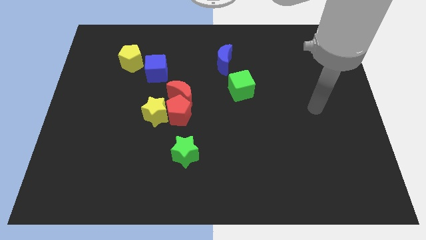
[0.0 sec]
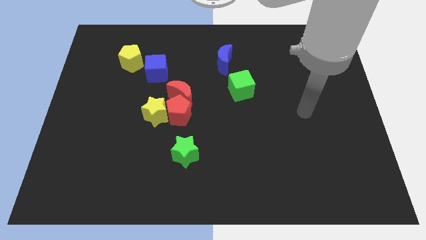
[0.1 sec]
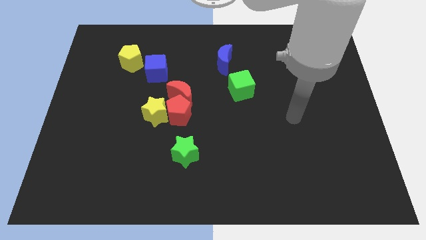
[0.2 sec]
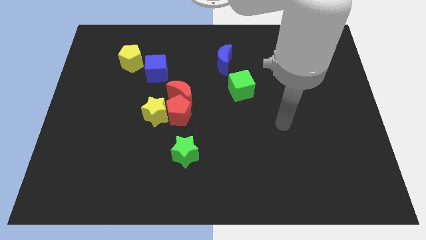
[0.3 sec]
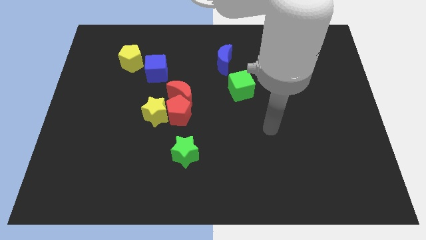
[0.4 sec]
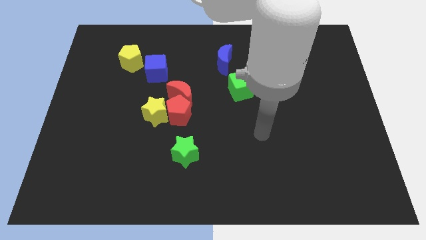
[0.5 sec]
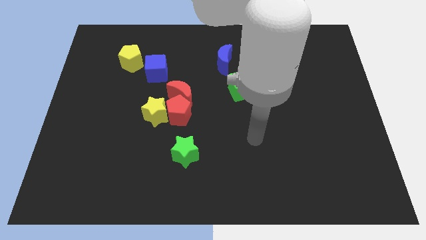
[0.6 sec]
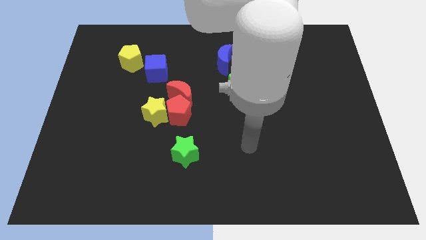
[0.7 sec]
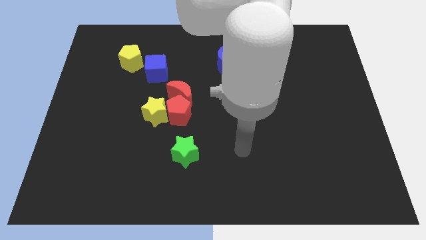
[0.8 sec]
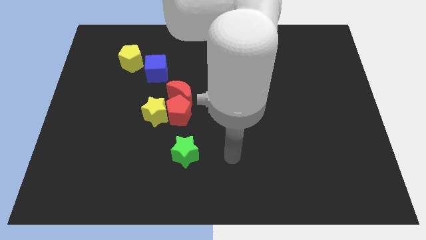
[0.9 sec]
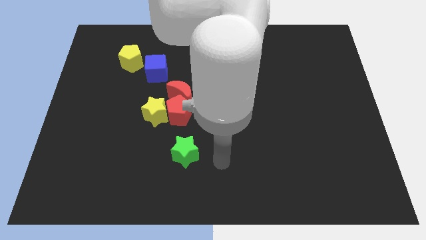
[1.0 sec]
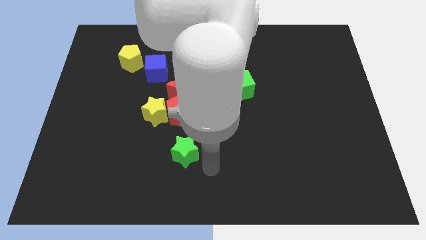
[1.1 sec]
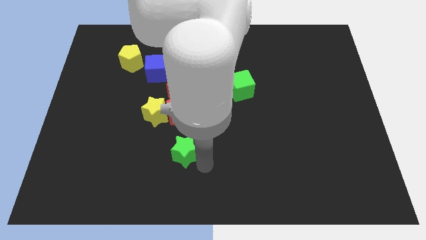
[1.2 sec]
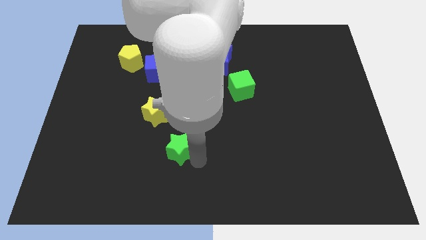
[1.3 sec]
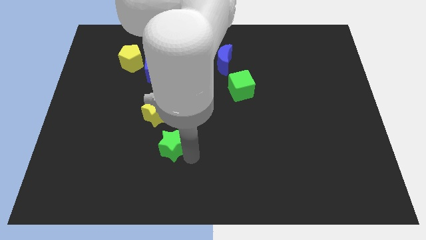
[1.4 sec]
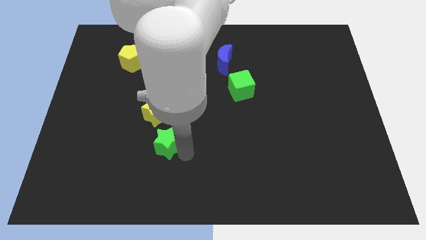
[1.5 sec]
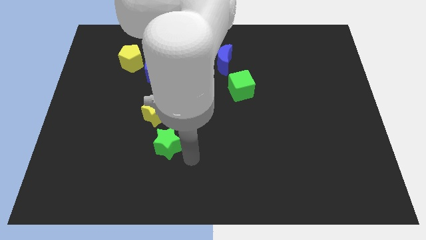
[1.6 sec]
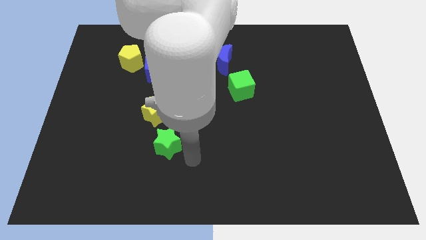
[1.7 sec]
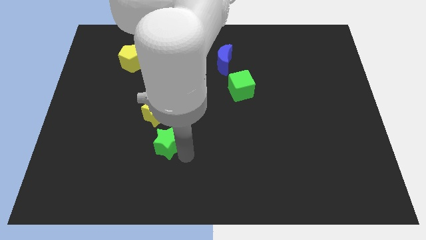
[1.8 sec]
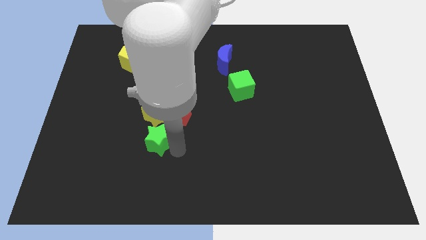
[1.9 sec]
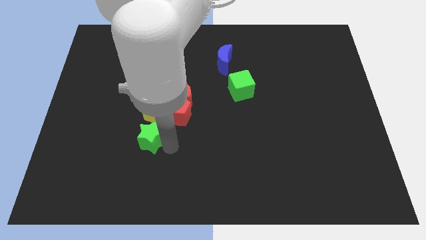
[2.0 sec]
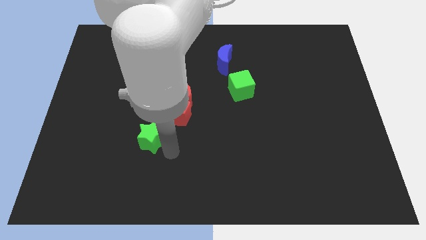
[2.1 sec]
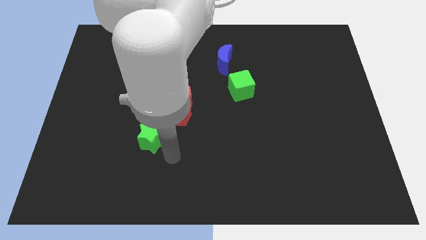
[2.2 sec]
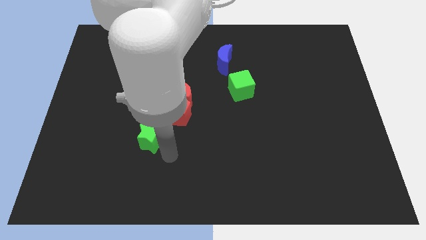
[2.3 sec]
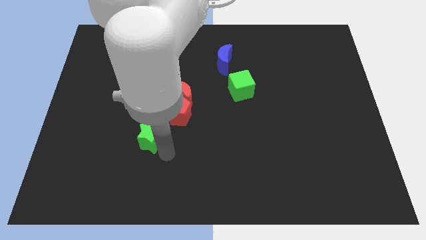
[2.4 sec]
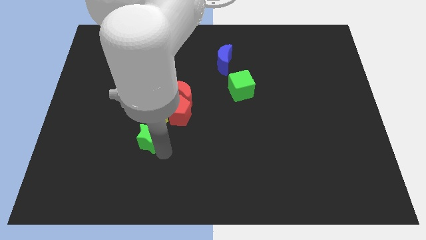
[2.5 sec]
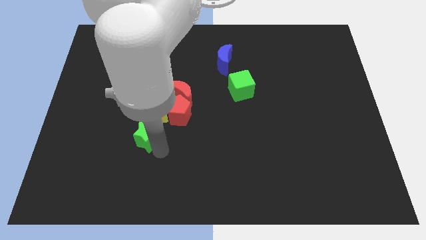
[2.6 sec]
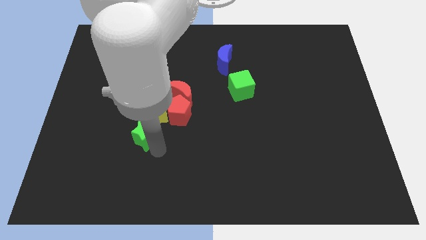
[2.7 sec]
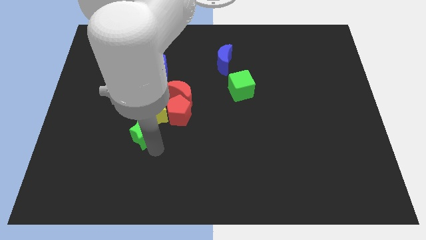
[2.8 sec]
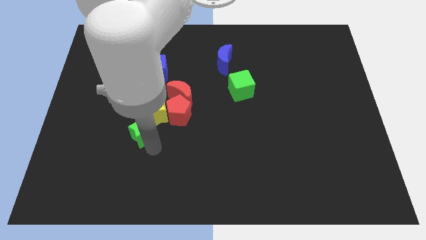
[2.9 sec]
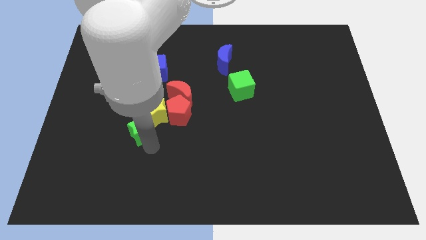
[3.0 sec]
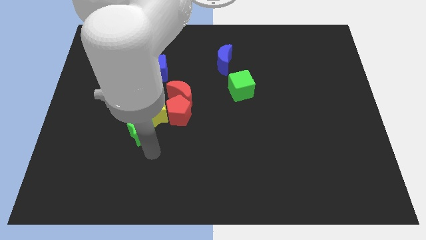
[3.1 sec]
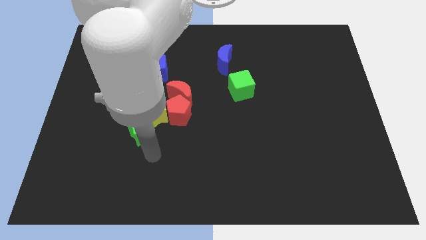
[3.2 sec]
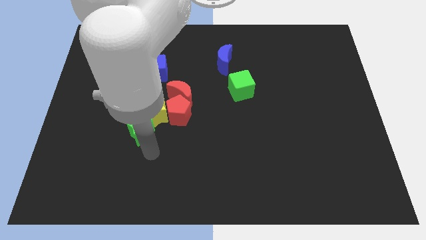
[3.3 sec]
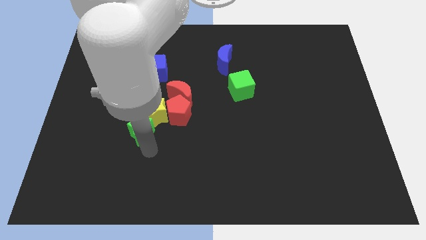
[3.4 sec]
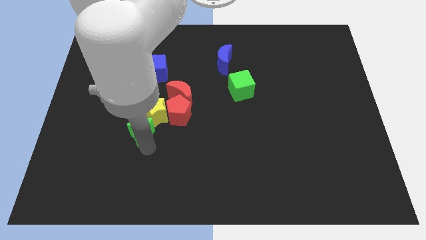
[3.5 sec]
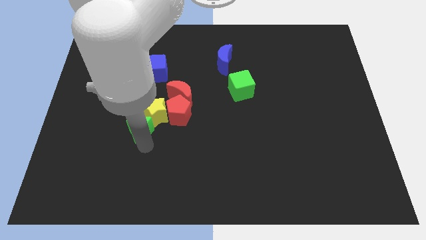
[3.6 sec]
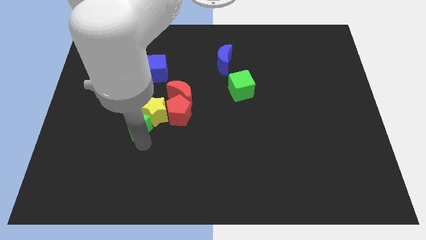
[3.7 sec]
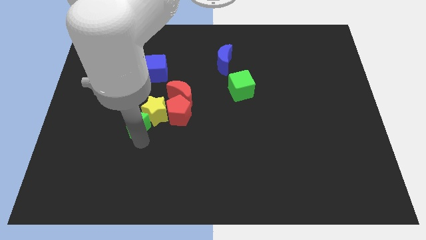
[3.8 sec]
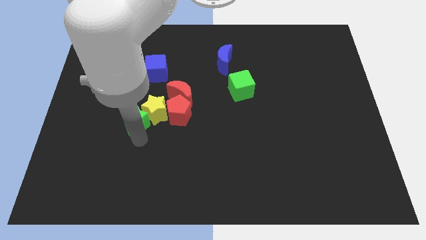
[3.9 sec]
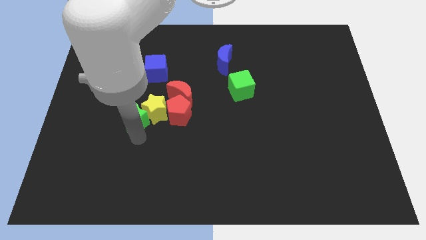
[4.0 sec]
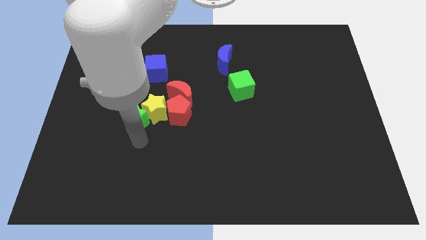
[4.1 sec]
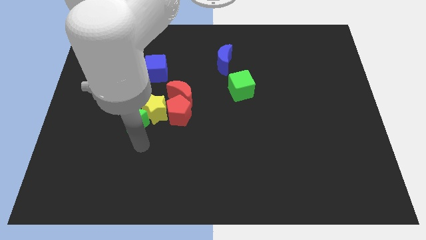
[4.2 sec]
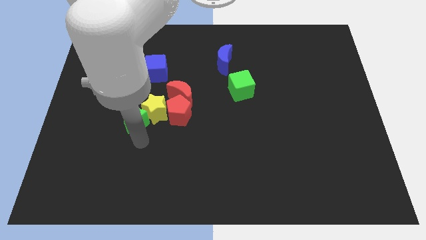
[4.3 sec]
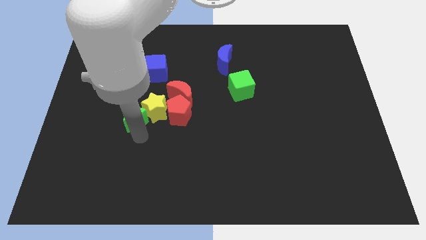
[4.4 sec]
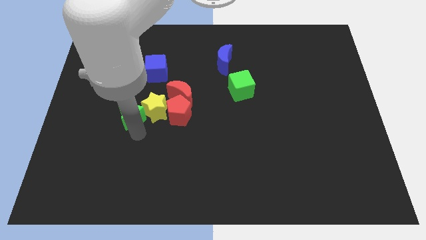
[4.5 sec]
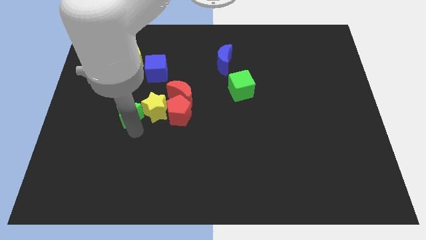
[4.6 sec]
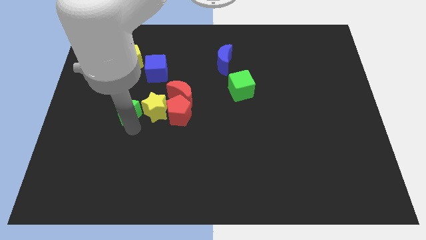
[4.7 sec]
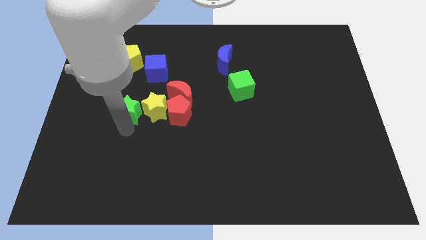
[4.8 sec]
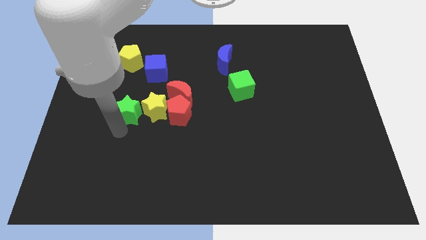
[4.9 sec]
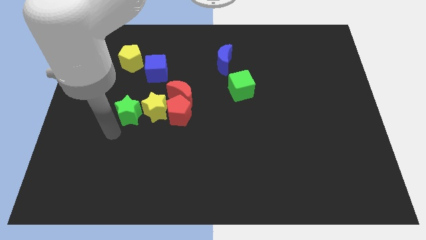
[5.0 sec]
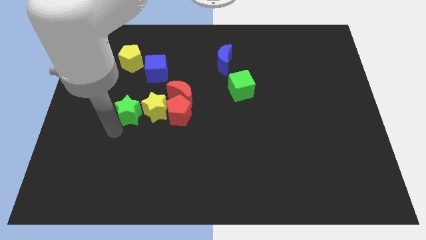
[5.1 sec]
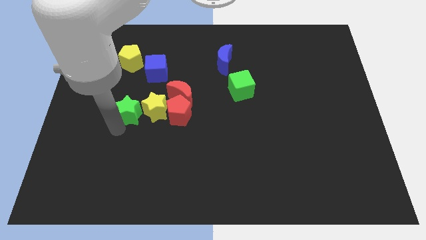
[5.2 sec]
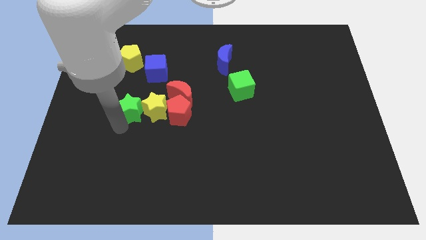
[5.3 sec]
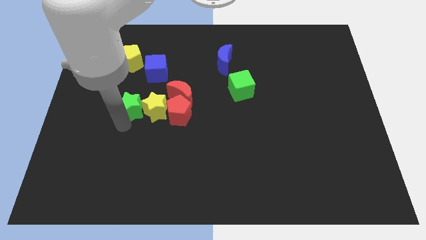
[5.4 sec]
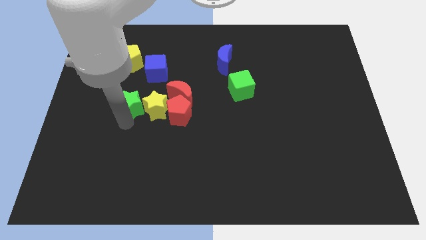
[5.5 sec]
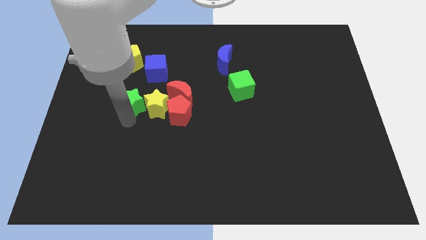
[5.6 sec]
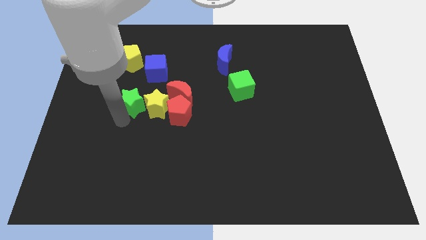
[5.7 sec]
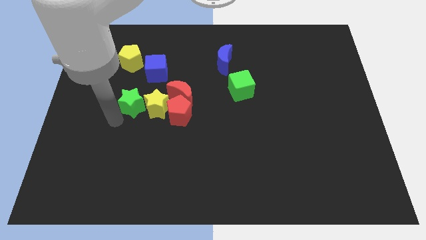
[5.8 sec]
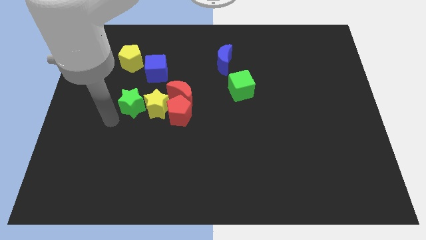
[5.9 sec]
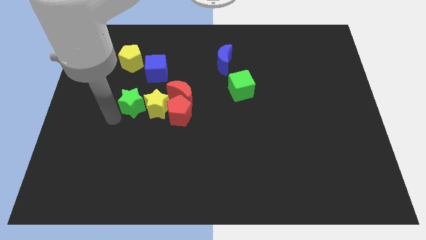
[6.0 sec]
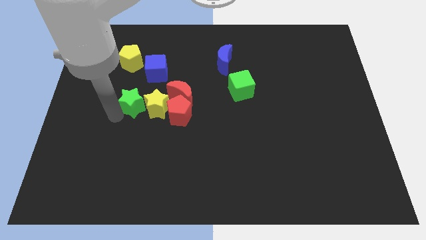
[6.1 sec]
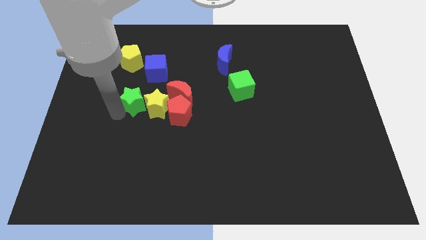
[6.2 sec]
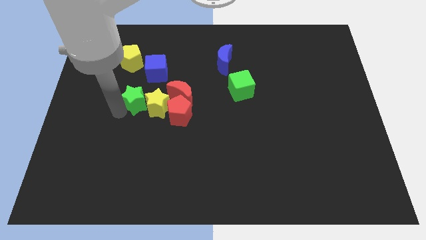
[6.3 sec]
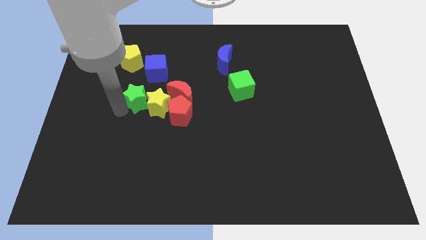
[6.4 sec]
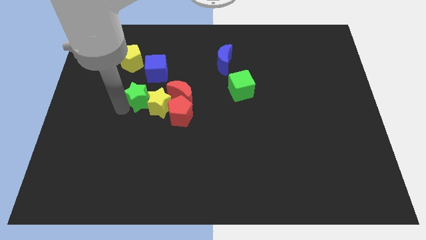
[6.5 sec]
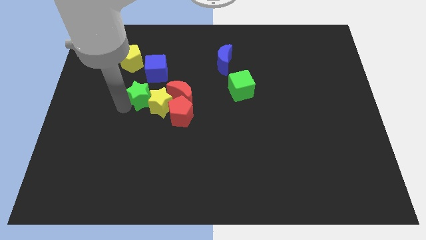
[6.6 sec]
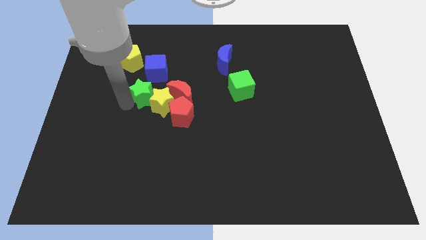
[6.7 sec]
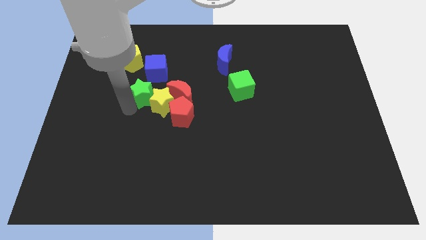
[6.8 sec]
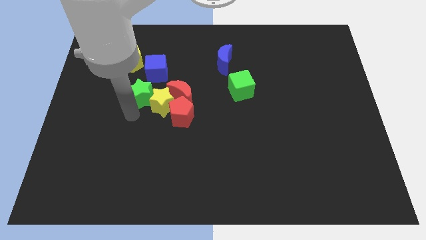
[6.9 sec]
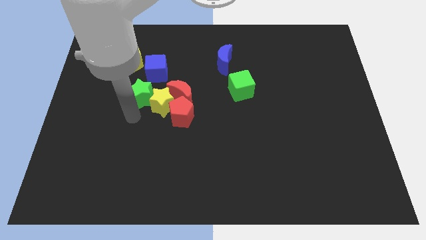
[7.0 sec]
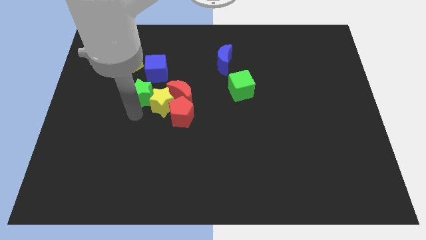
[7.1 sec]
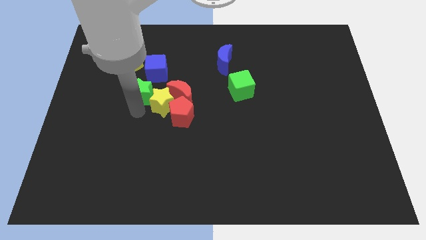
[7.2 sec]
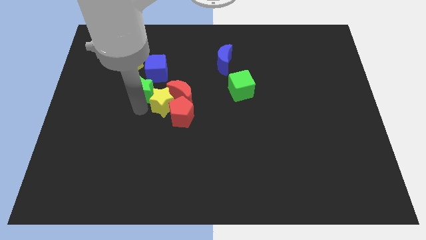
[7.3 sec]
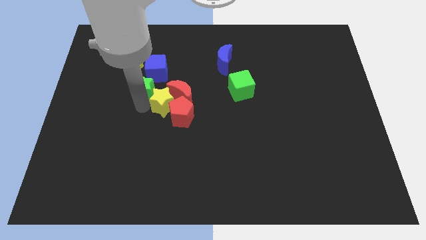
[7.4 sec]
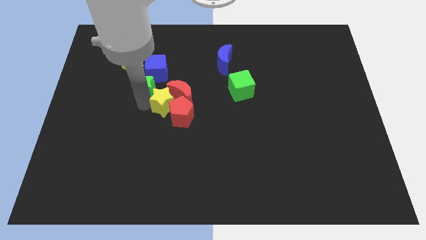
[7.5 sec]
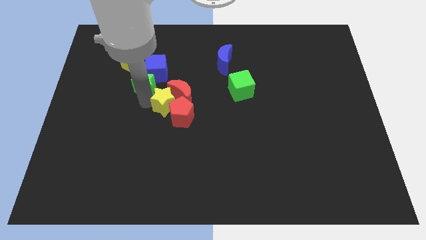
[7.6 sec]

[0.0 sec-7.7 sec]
put the green star close to the blue cube
